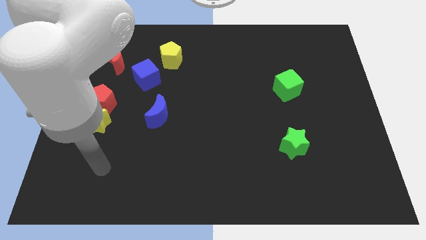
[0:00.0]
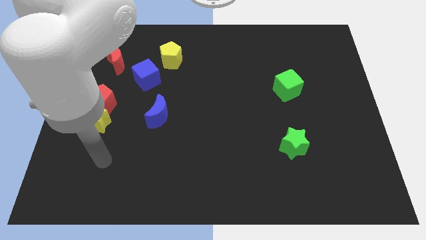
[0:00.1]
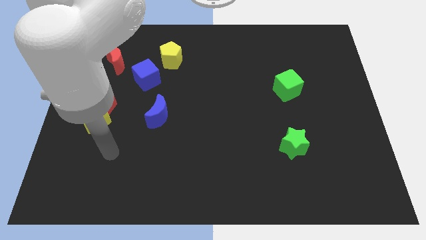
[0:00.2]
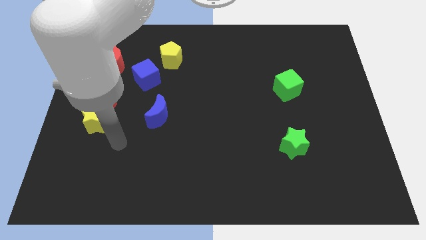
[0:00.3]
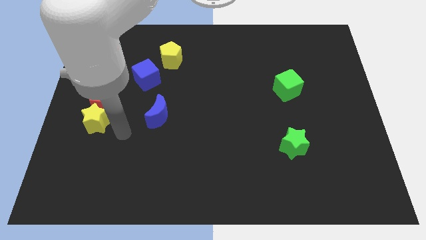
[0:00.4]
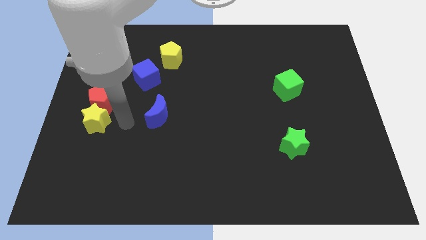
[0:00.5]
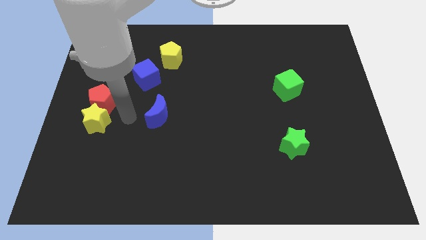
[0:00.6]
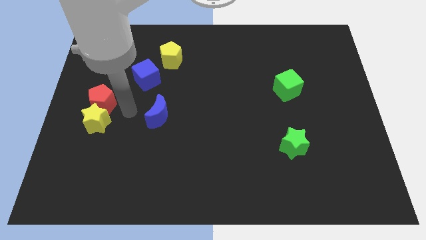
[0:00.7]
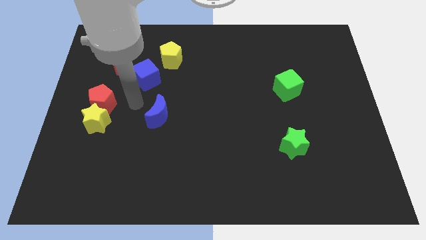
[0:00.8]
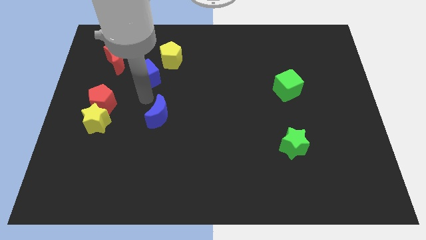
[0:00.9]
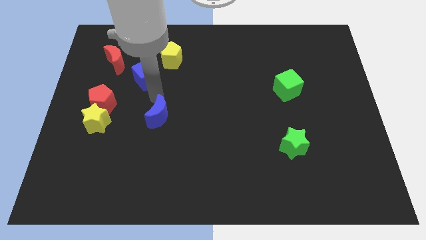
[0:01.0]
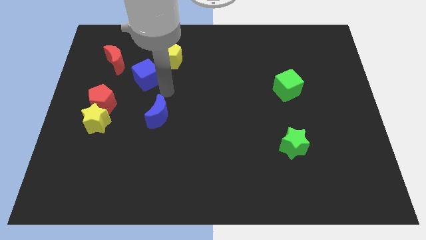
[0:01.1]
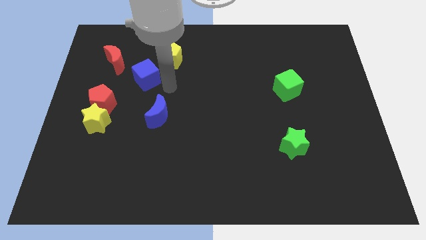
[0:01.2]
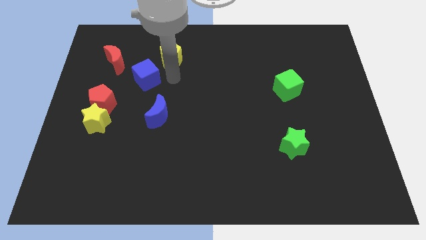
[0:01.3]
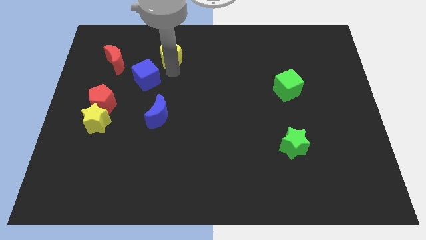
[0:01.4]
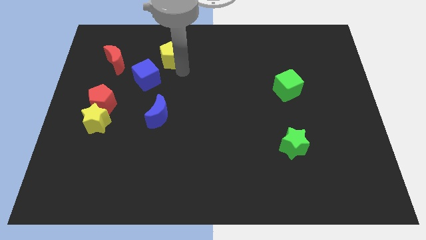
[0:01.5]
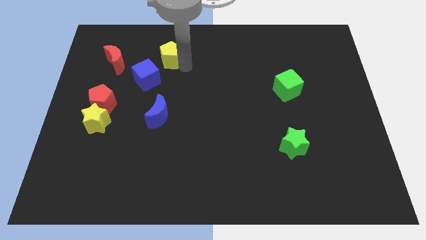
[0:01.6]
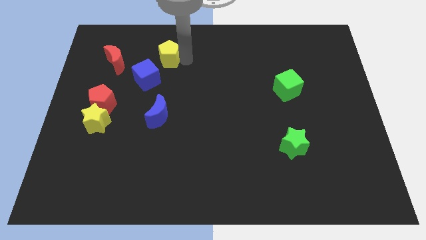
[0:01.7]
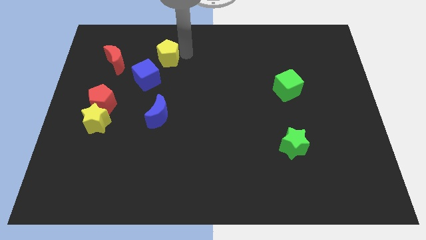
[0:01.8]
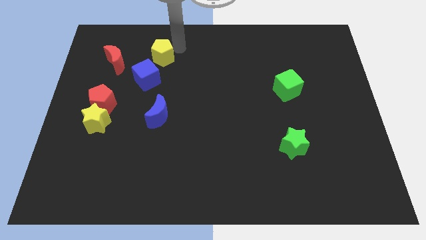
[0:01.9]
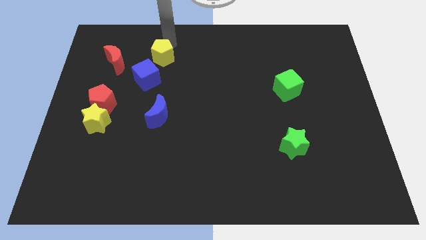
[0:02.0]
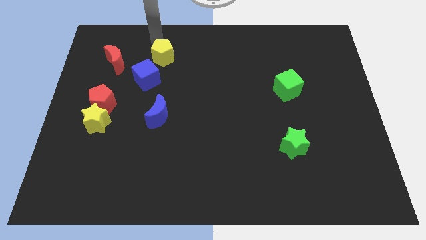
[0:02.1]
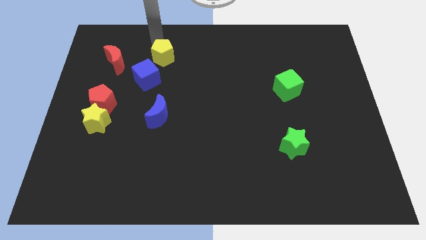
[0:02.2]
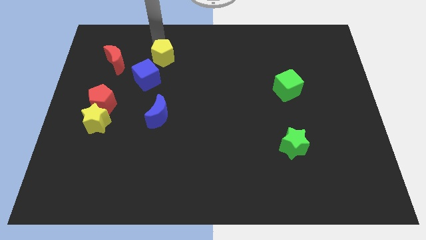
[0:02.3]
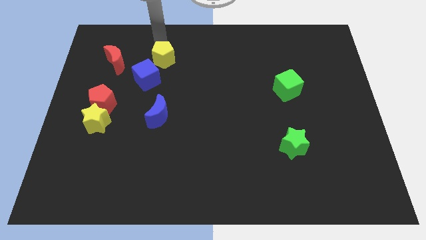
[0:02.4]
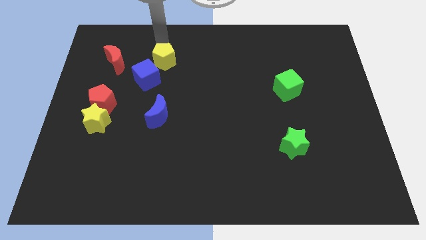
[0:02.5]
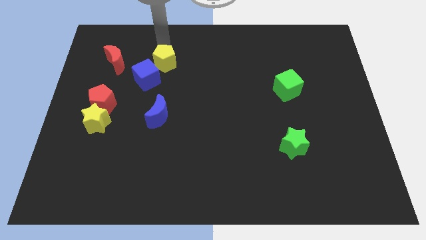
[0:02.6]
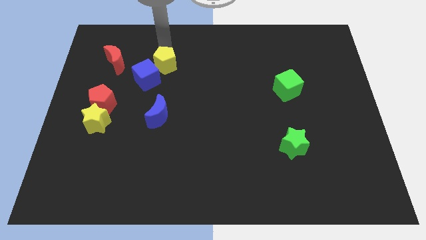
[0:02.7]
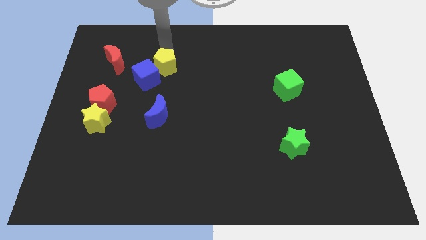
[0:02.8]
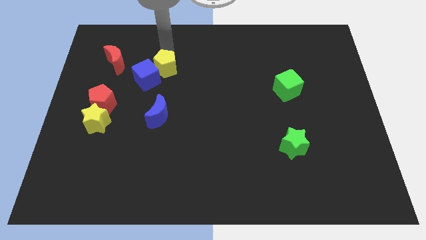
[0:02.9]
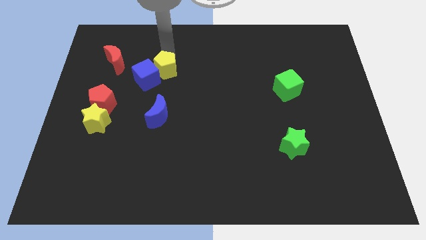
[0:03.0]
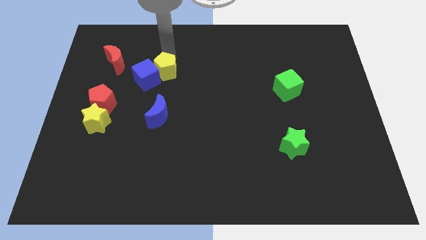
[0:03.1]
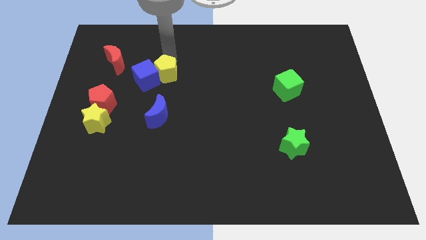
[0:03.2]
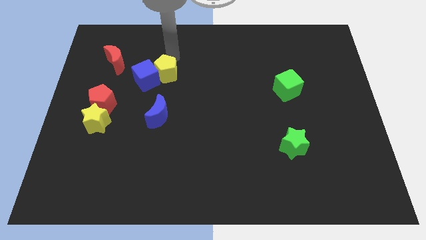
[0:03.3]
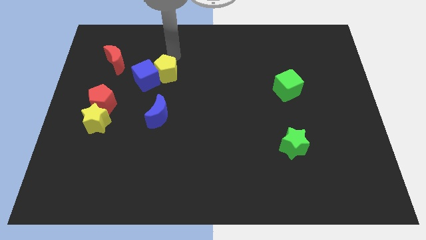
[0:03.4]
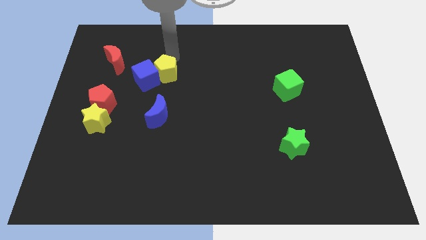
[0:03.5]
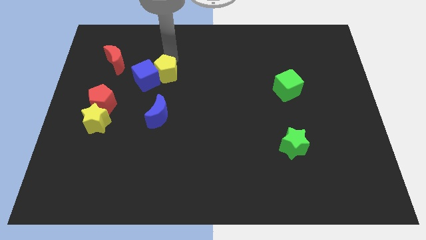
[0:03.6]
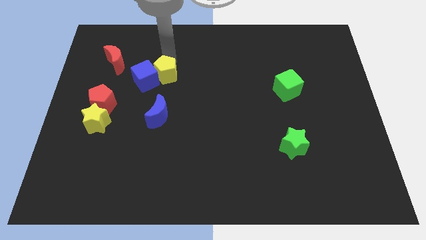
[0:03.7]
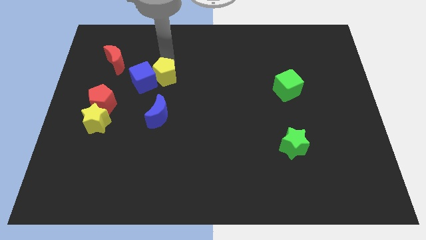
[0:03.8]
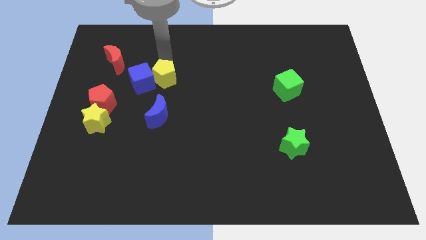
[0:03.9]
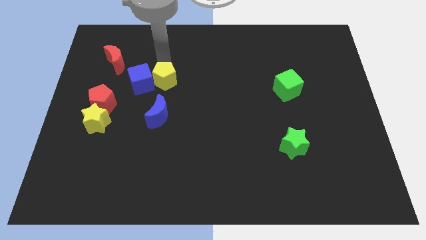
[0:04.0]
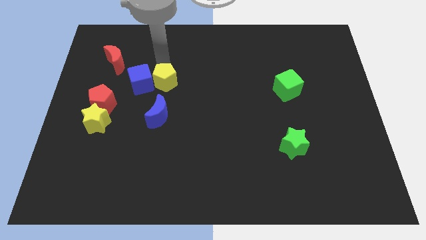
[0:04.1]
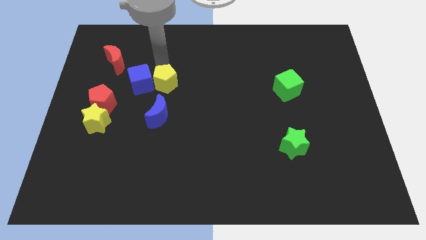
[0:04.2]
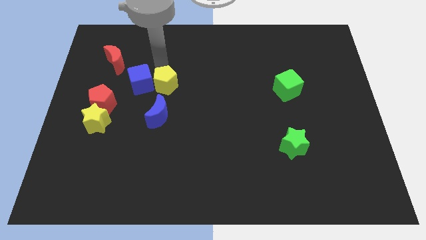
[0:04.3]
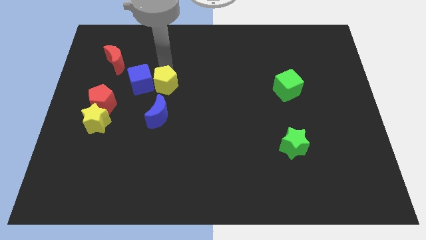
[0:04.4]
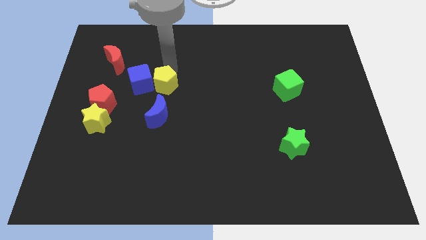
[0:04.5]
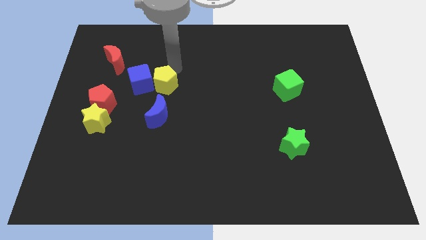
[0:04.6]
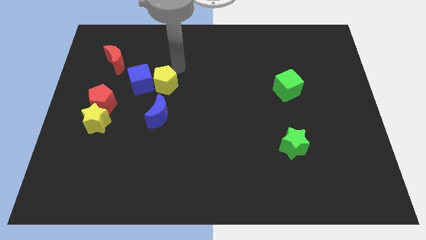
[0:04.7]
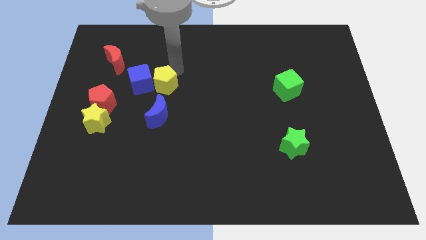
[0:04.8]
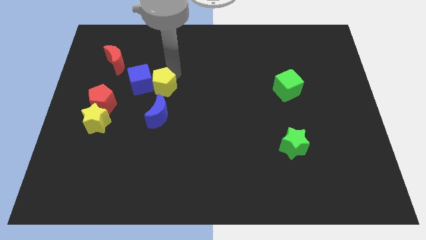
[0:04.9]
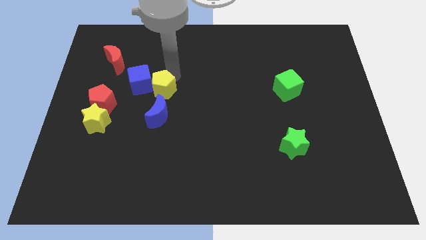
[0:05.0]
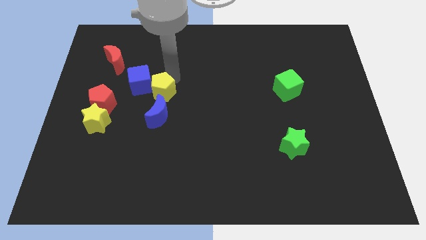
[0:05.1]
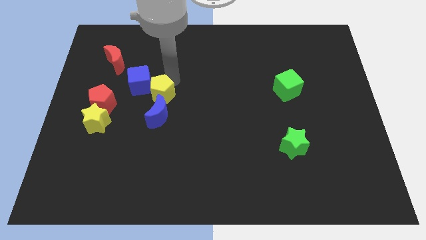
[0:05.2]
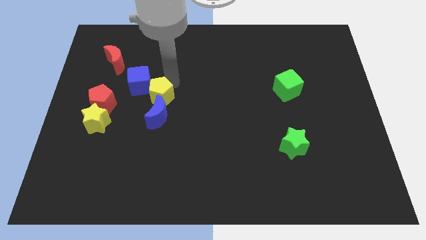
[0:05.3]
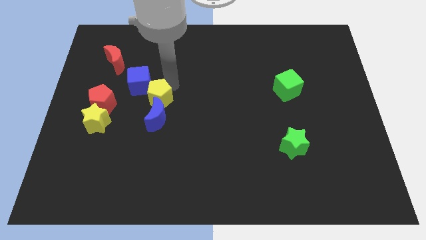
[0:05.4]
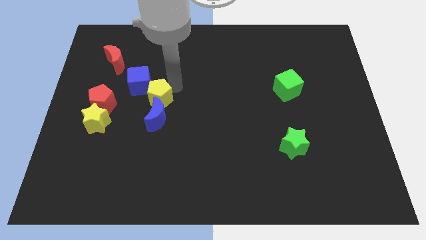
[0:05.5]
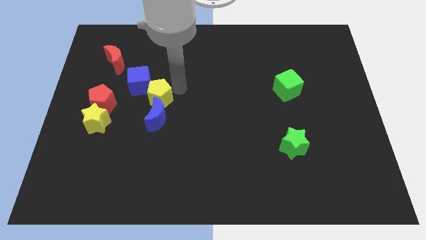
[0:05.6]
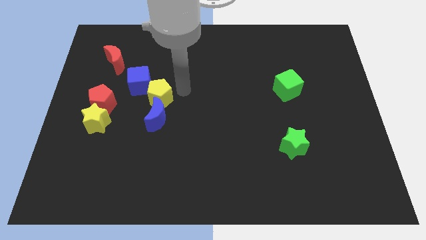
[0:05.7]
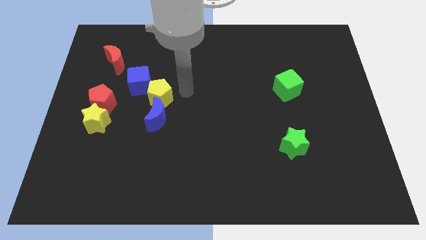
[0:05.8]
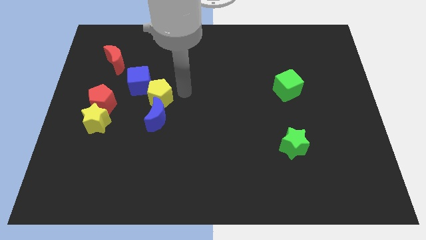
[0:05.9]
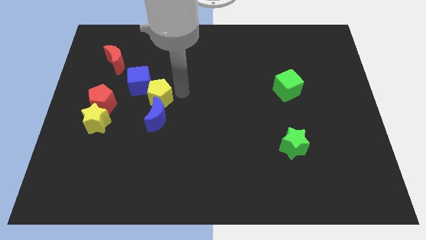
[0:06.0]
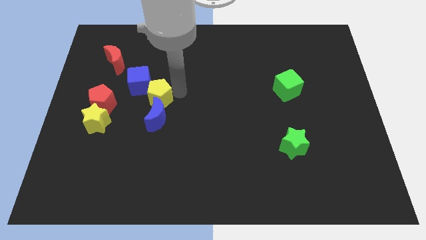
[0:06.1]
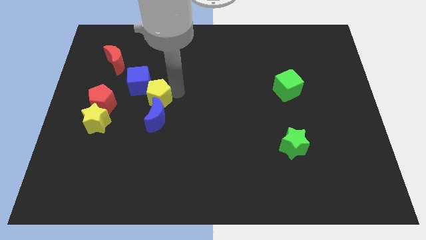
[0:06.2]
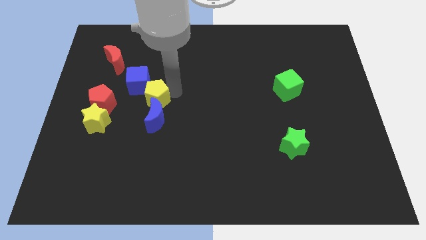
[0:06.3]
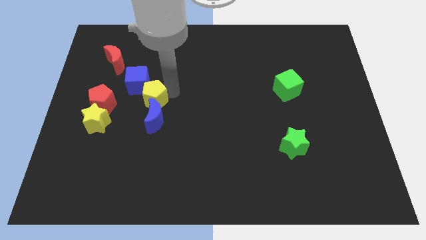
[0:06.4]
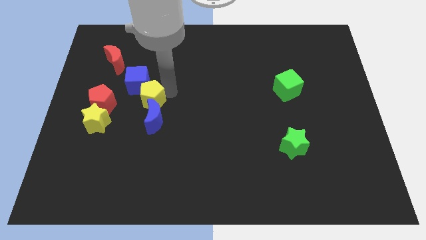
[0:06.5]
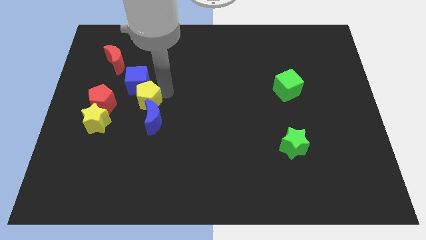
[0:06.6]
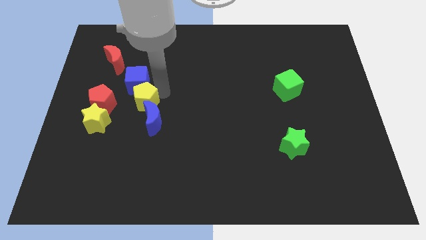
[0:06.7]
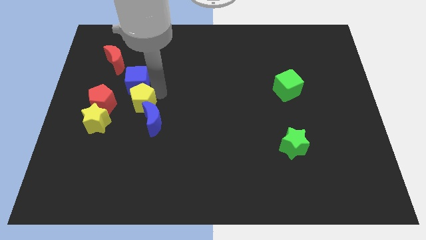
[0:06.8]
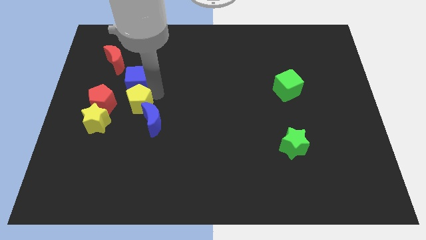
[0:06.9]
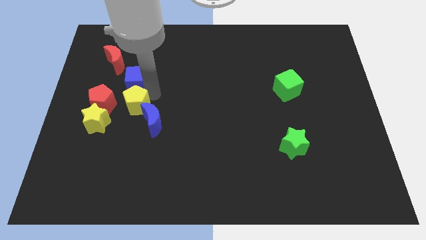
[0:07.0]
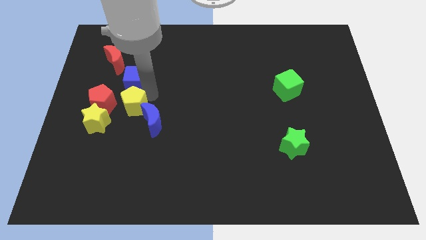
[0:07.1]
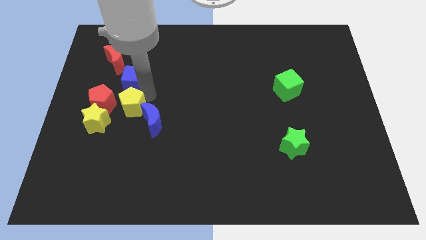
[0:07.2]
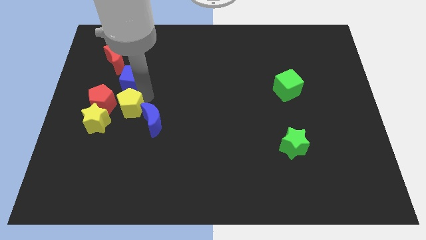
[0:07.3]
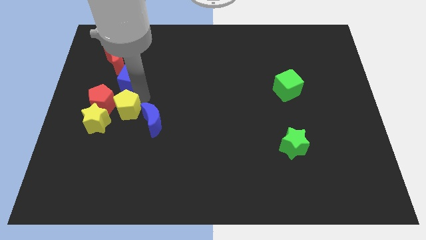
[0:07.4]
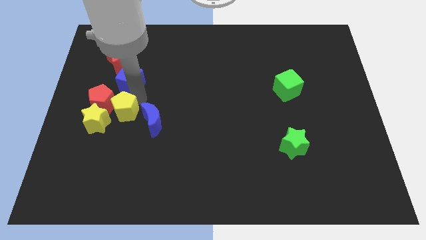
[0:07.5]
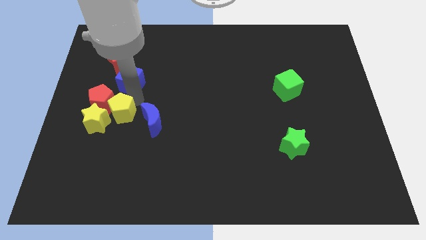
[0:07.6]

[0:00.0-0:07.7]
move the yellow pentagon to the yellow star
